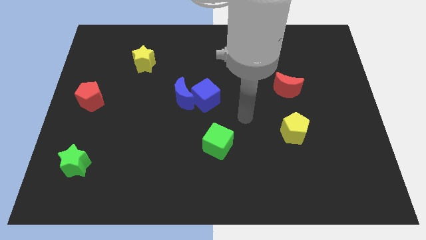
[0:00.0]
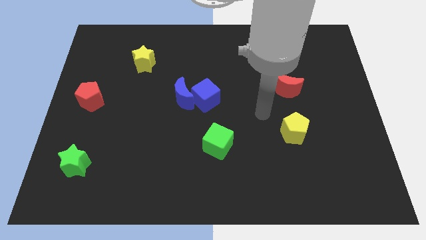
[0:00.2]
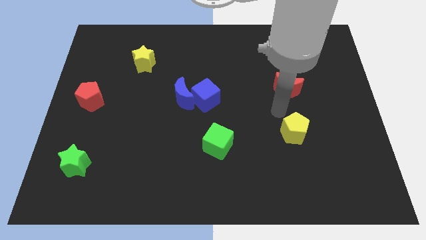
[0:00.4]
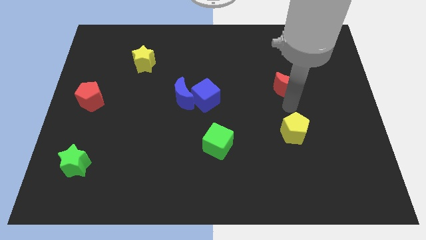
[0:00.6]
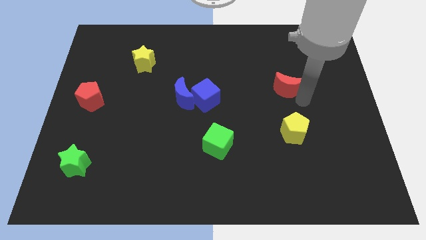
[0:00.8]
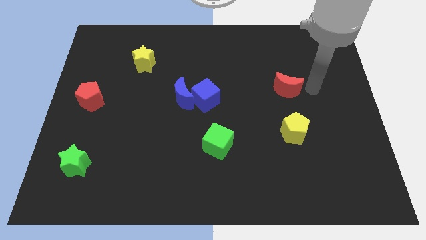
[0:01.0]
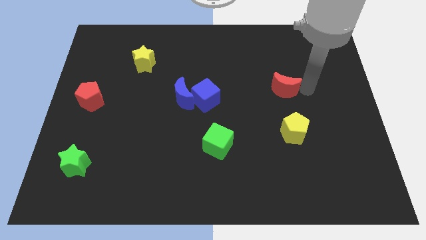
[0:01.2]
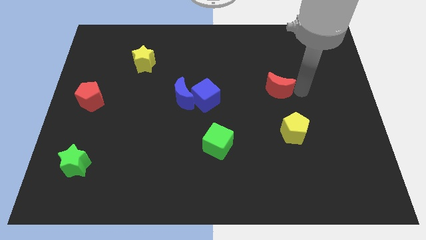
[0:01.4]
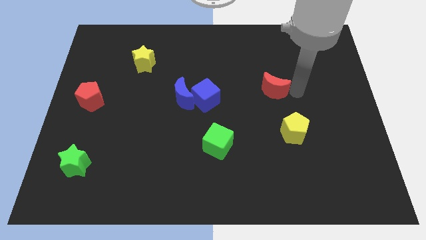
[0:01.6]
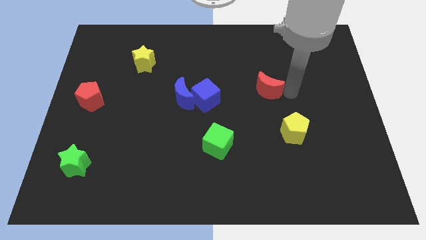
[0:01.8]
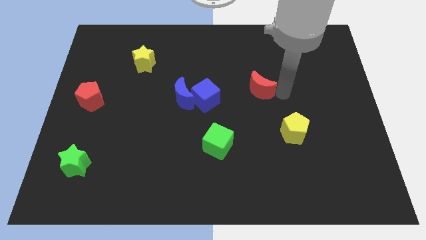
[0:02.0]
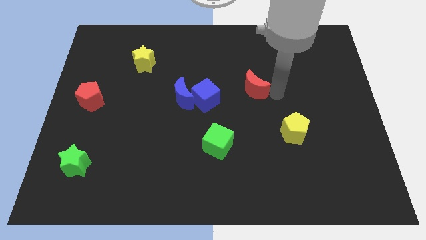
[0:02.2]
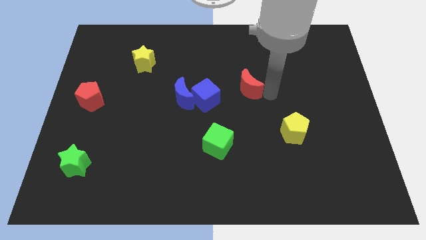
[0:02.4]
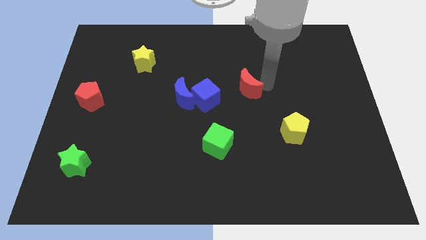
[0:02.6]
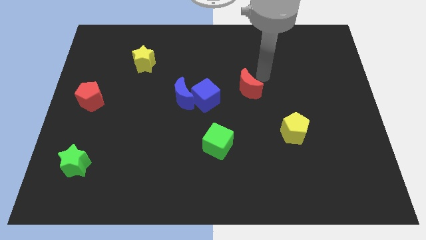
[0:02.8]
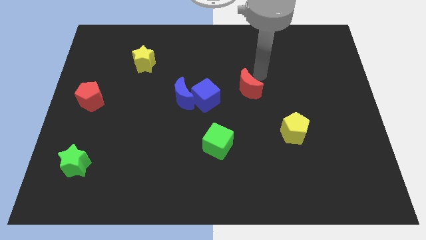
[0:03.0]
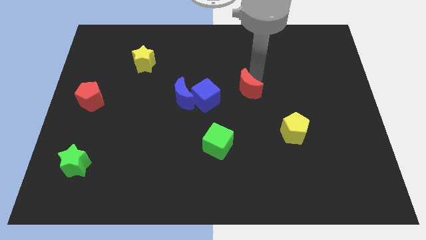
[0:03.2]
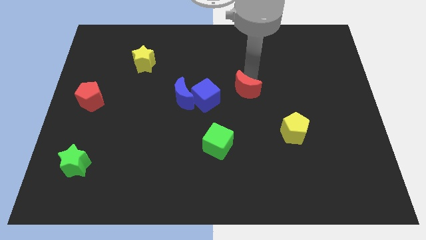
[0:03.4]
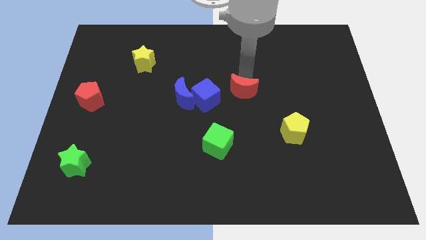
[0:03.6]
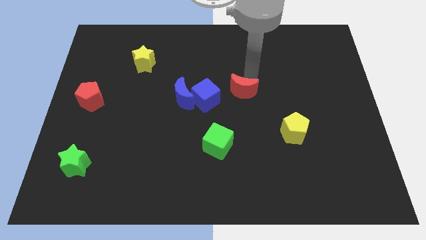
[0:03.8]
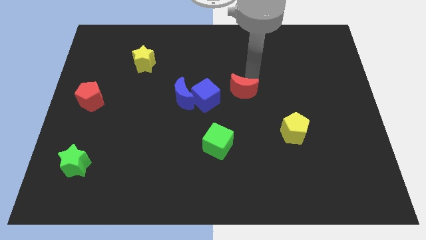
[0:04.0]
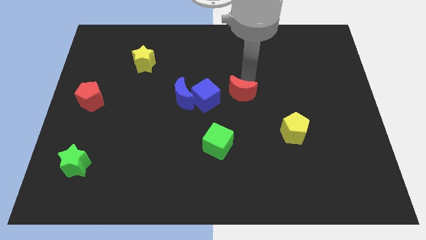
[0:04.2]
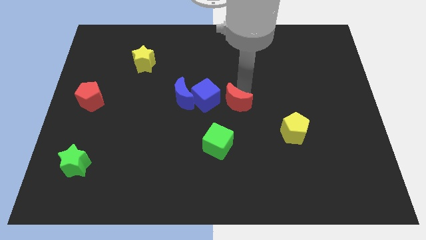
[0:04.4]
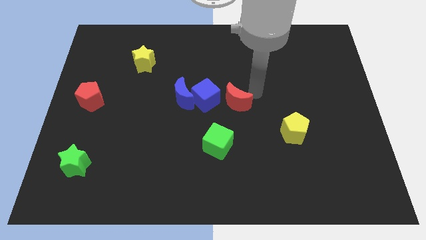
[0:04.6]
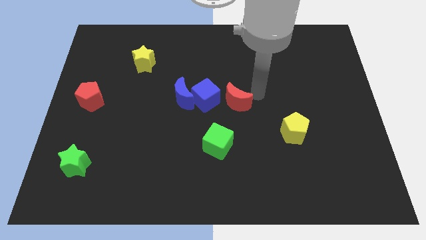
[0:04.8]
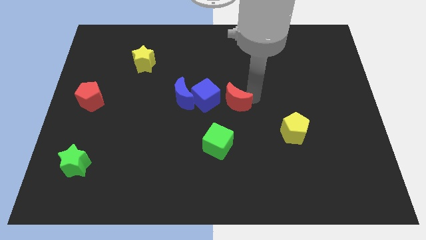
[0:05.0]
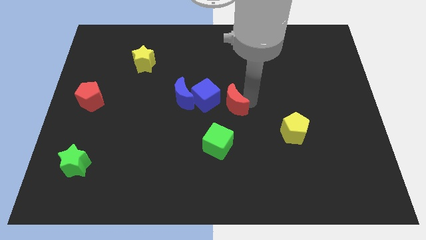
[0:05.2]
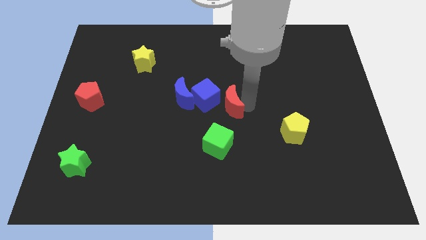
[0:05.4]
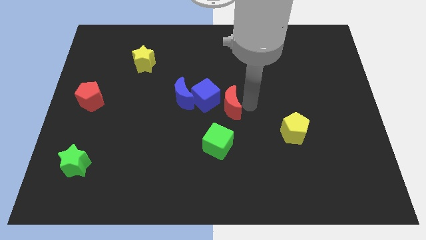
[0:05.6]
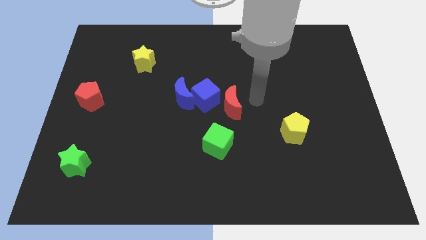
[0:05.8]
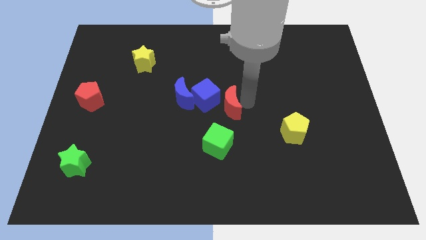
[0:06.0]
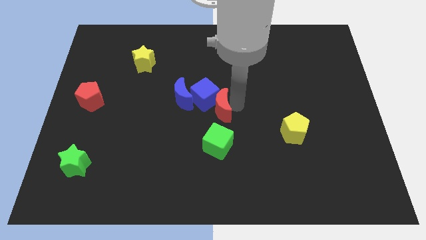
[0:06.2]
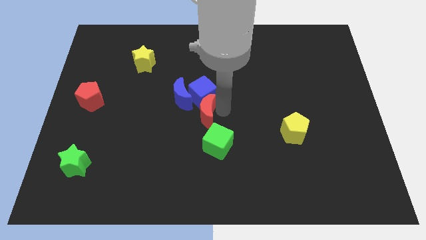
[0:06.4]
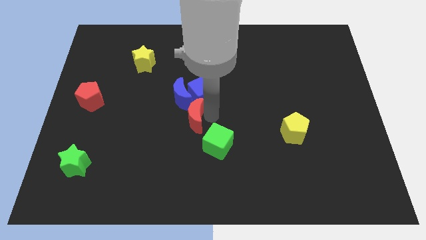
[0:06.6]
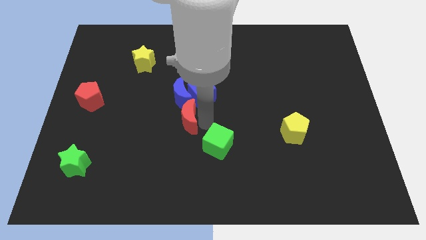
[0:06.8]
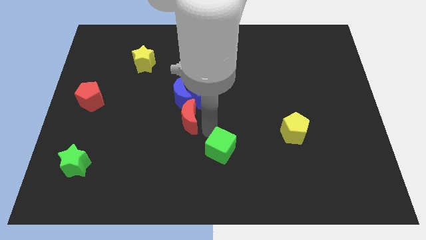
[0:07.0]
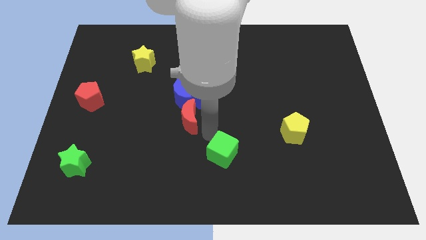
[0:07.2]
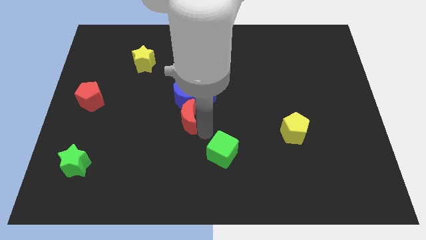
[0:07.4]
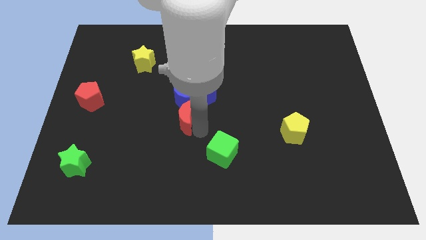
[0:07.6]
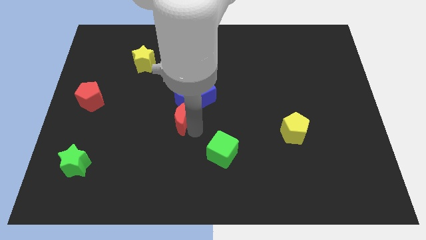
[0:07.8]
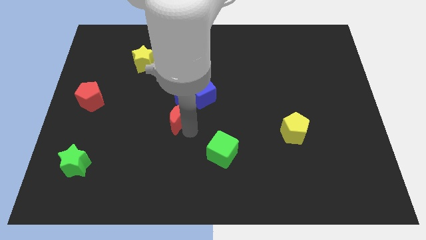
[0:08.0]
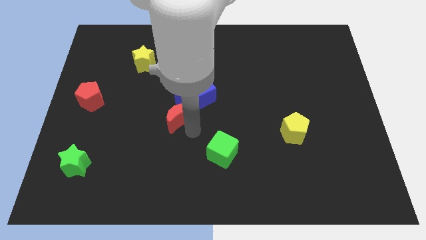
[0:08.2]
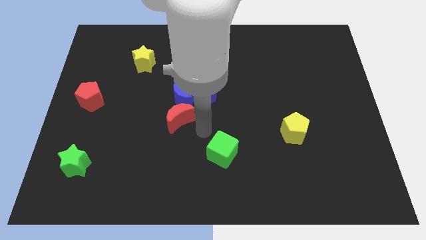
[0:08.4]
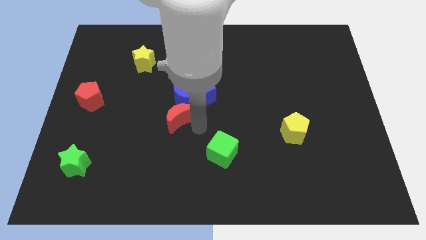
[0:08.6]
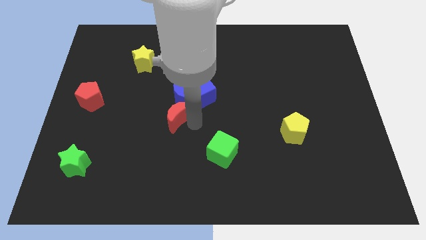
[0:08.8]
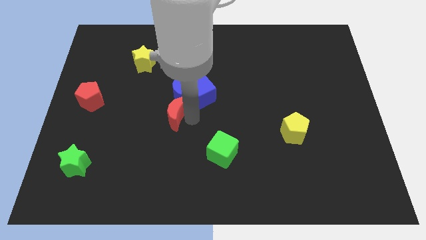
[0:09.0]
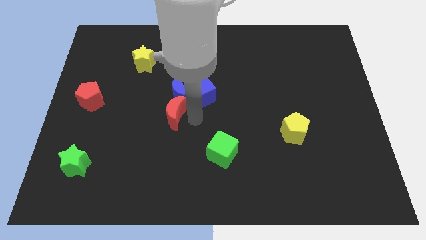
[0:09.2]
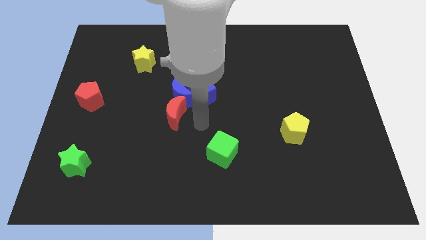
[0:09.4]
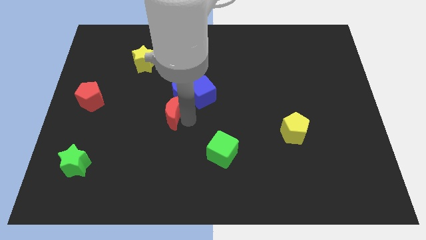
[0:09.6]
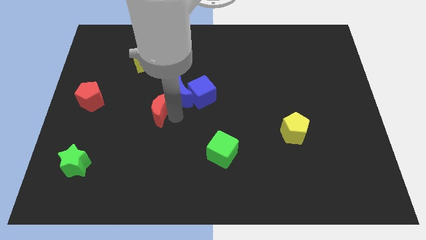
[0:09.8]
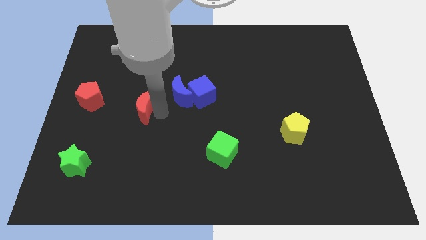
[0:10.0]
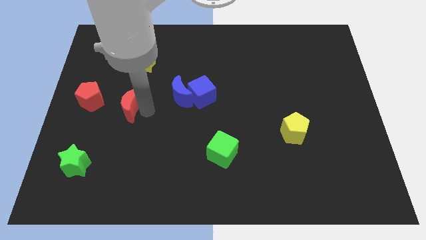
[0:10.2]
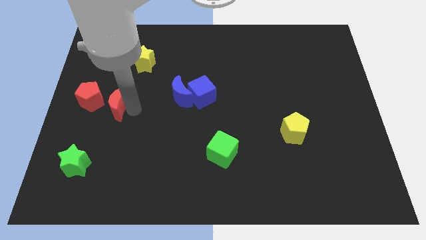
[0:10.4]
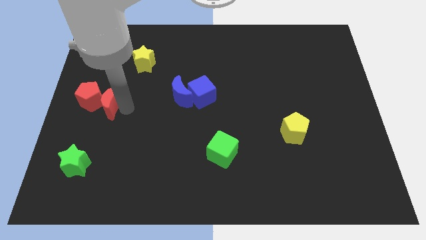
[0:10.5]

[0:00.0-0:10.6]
push the red moon towards the red pentagon
